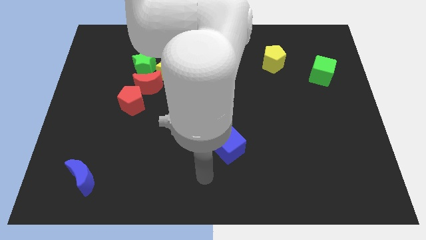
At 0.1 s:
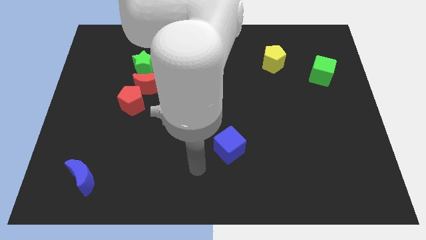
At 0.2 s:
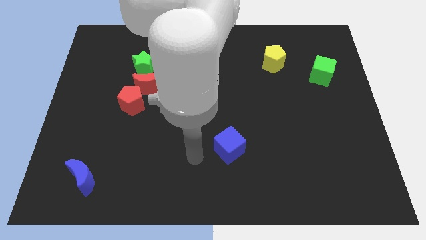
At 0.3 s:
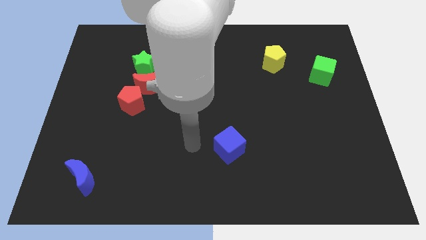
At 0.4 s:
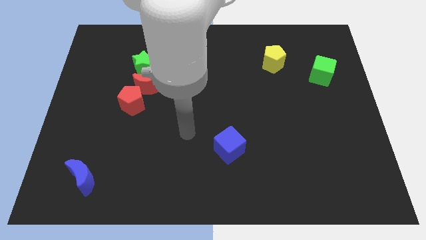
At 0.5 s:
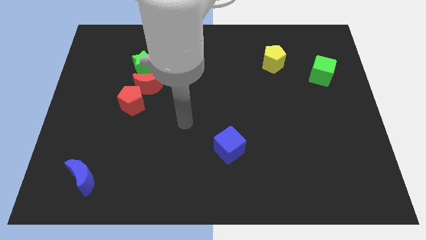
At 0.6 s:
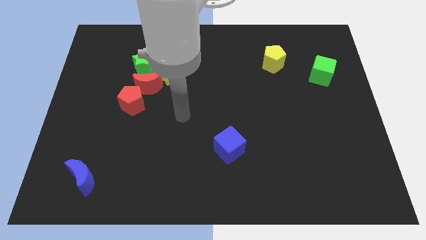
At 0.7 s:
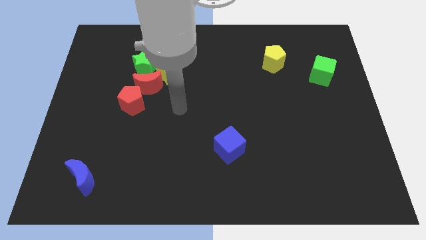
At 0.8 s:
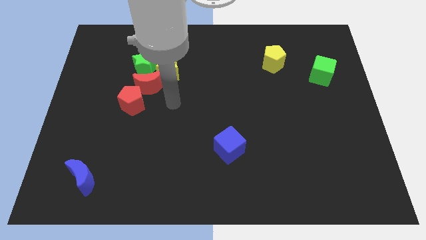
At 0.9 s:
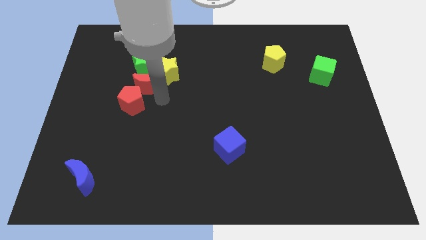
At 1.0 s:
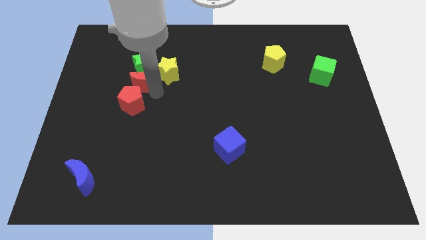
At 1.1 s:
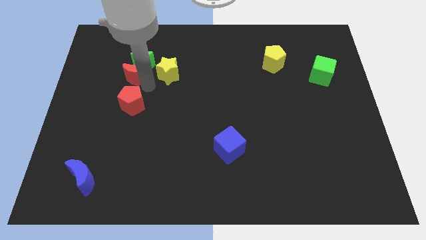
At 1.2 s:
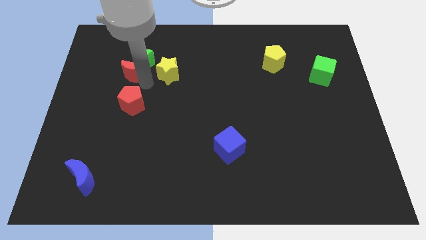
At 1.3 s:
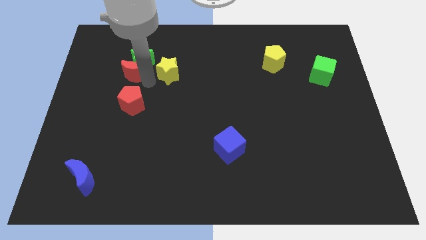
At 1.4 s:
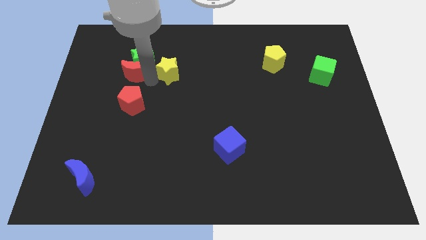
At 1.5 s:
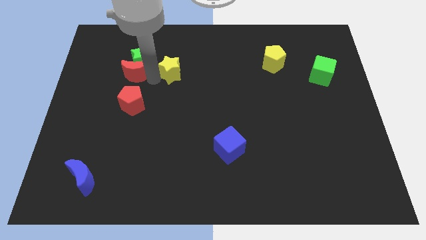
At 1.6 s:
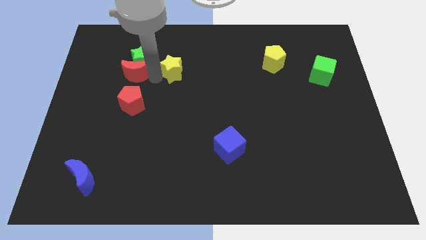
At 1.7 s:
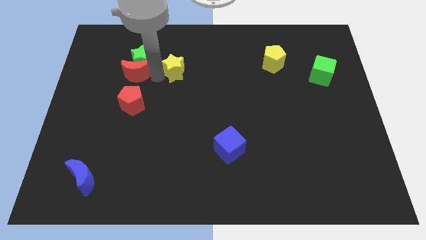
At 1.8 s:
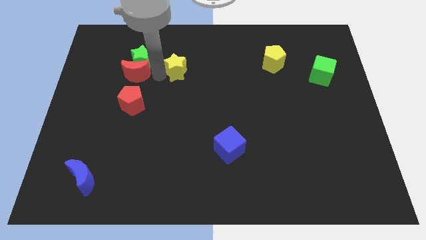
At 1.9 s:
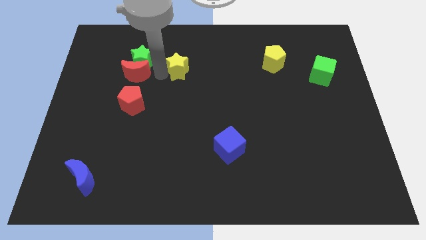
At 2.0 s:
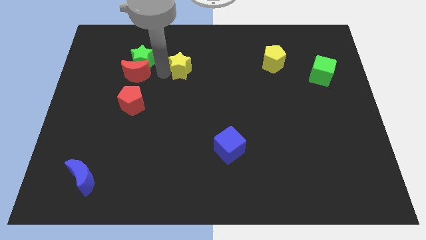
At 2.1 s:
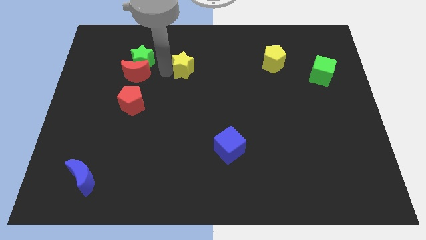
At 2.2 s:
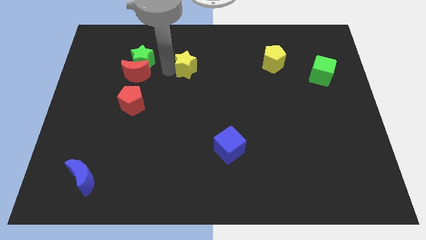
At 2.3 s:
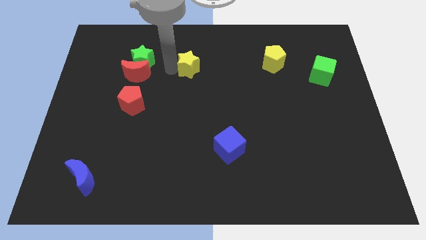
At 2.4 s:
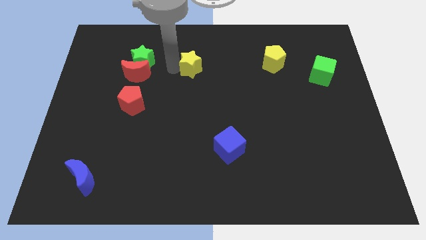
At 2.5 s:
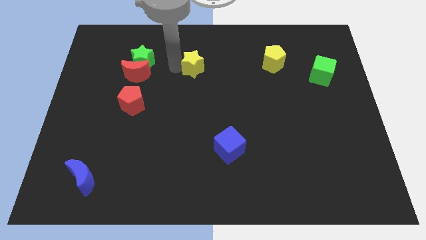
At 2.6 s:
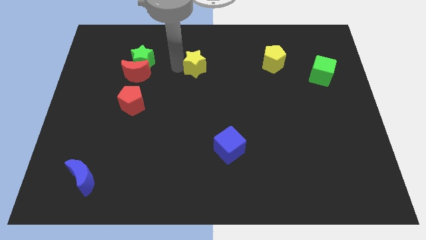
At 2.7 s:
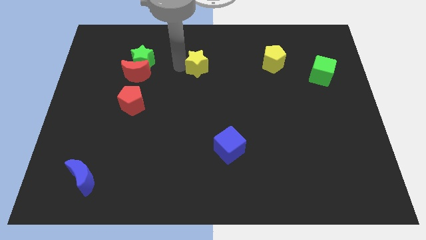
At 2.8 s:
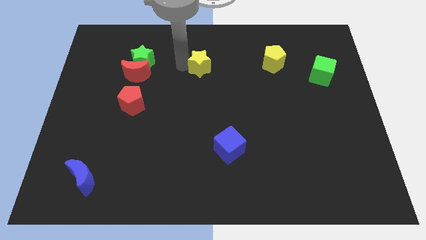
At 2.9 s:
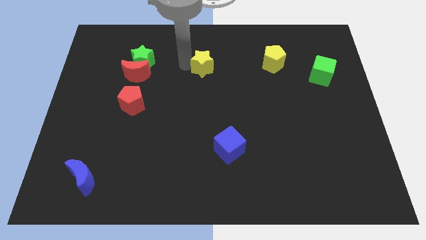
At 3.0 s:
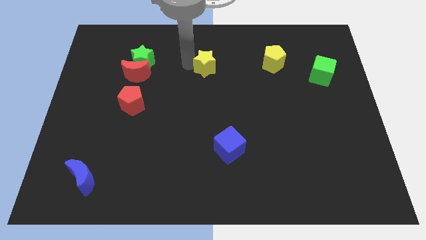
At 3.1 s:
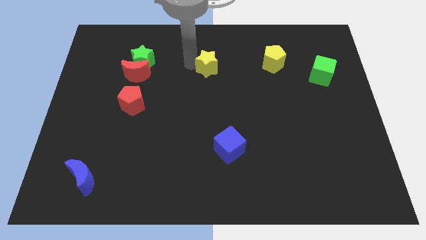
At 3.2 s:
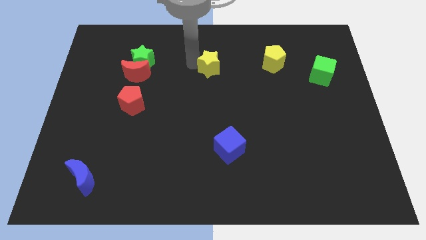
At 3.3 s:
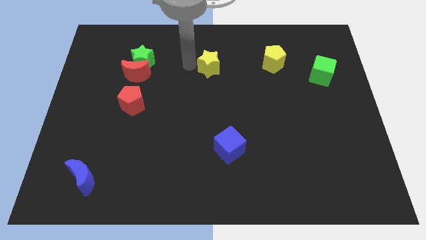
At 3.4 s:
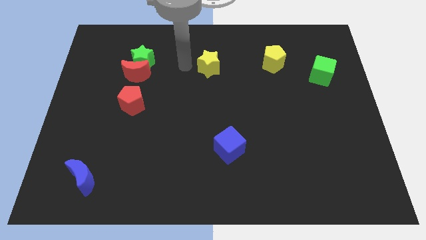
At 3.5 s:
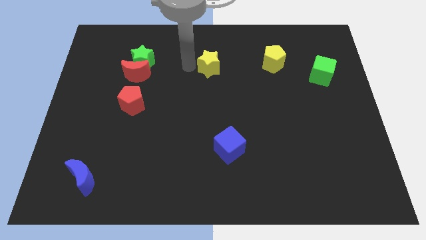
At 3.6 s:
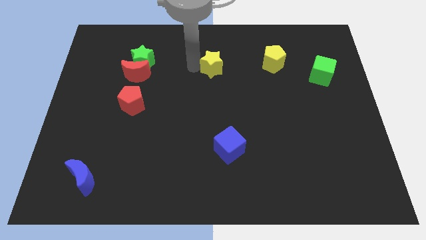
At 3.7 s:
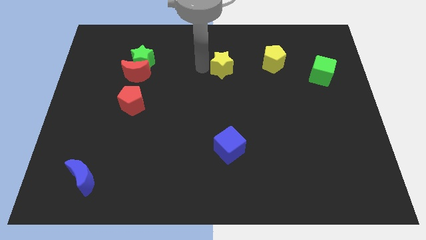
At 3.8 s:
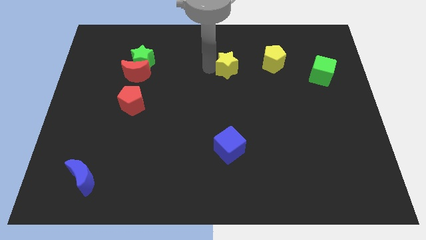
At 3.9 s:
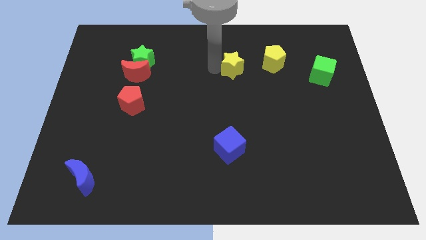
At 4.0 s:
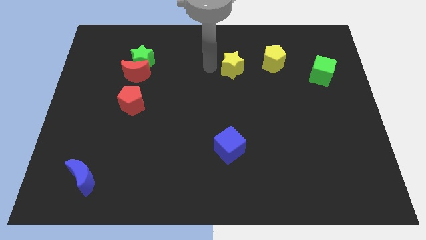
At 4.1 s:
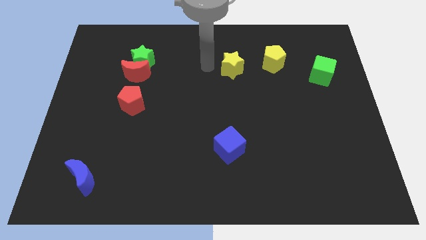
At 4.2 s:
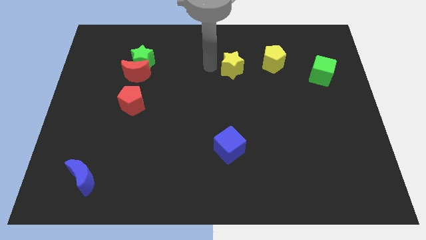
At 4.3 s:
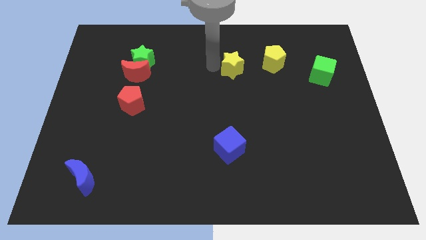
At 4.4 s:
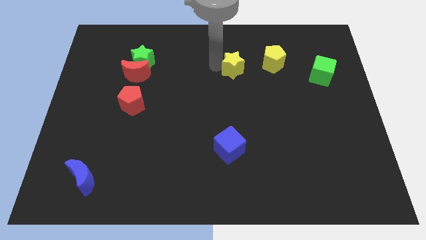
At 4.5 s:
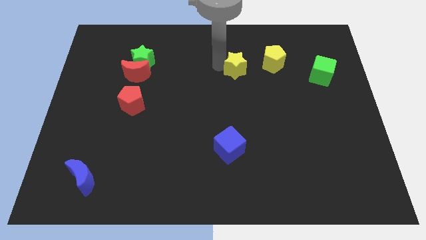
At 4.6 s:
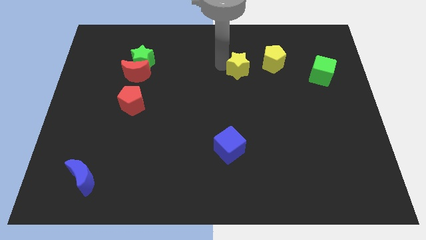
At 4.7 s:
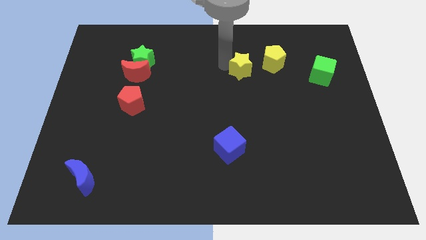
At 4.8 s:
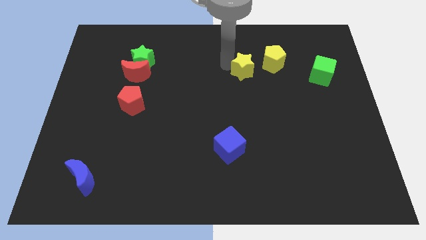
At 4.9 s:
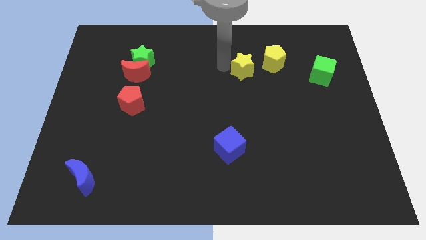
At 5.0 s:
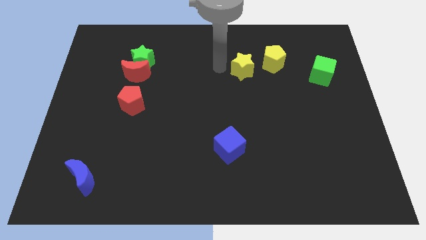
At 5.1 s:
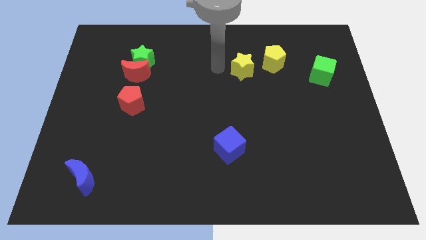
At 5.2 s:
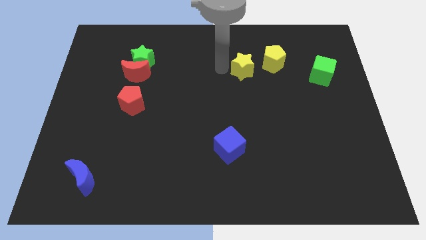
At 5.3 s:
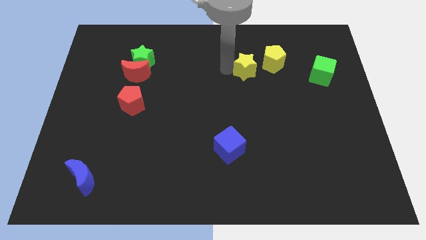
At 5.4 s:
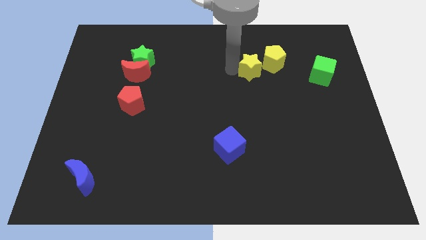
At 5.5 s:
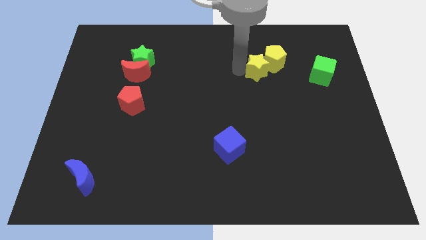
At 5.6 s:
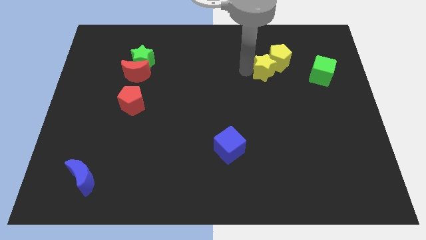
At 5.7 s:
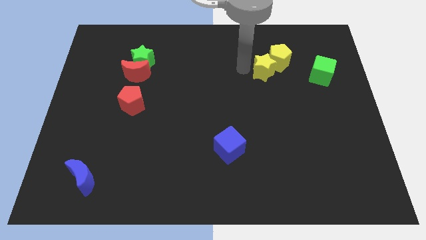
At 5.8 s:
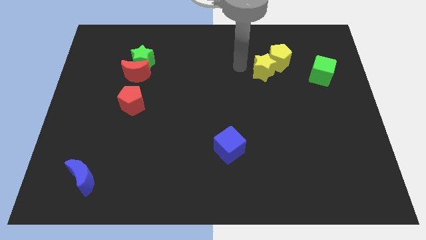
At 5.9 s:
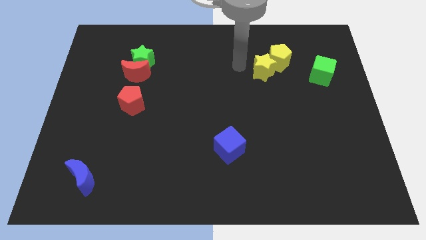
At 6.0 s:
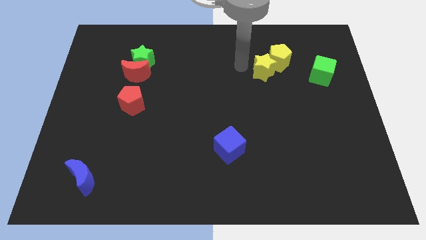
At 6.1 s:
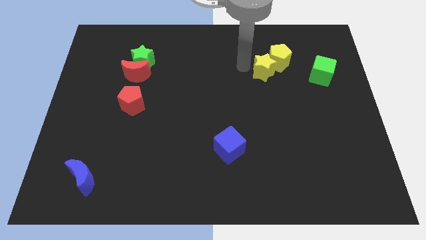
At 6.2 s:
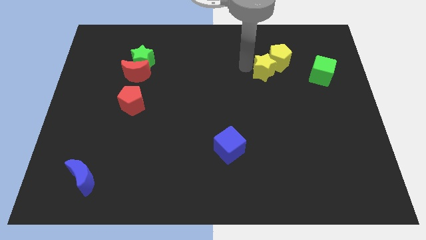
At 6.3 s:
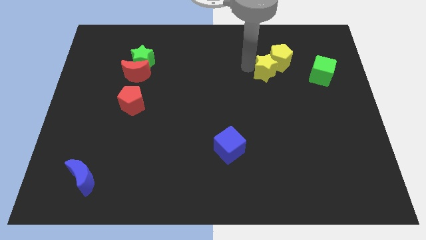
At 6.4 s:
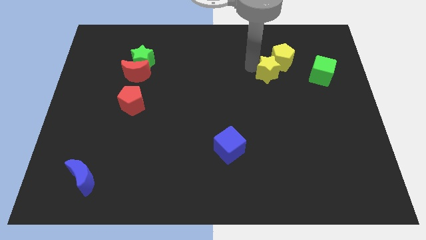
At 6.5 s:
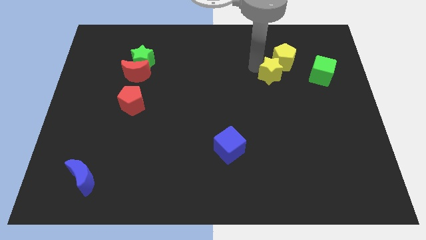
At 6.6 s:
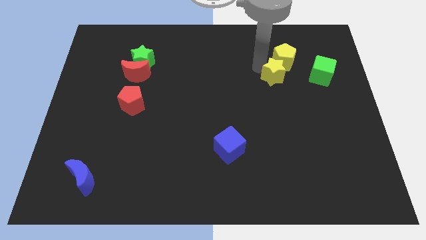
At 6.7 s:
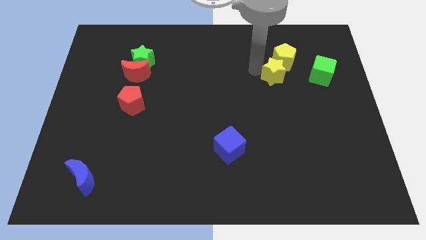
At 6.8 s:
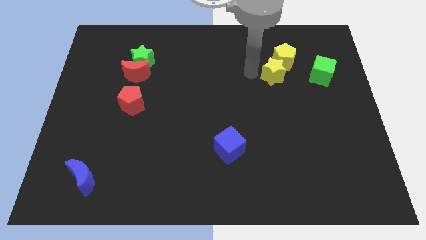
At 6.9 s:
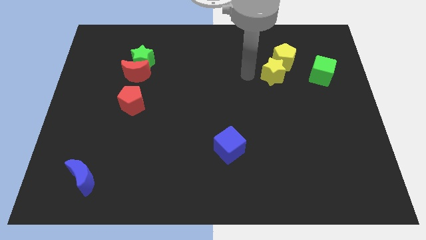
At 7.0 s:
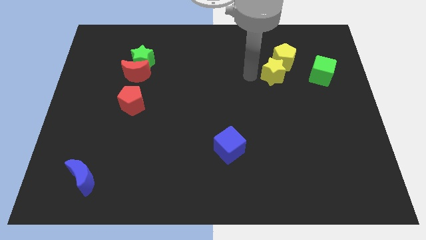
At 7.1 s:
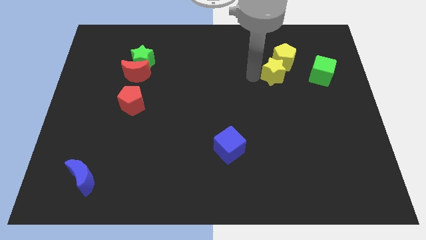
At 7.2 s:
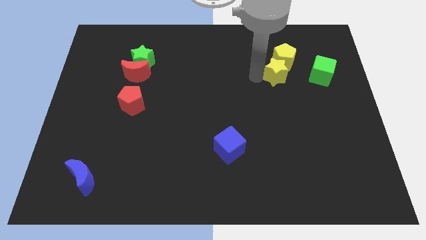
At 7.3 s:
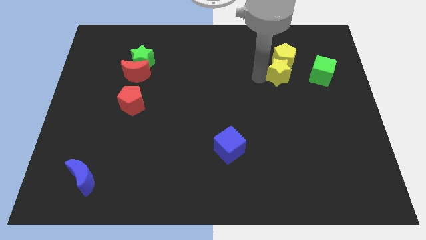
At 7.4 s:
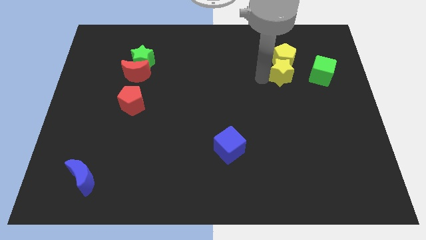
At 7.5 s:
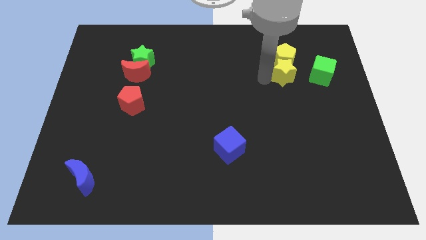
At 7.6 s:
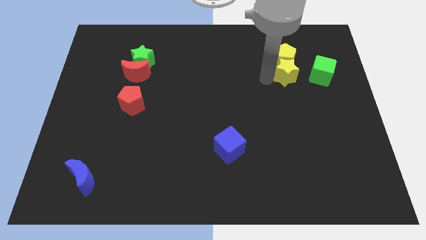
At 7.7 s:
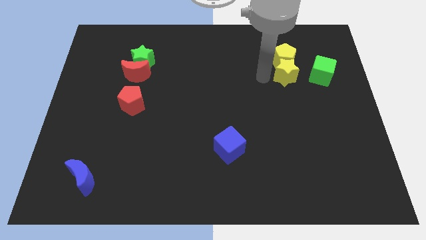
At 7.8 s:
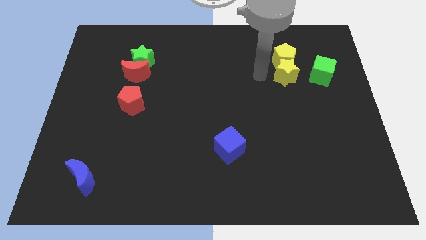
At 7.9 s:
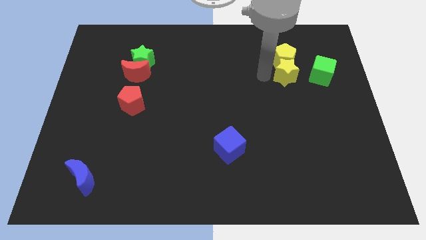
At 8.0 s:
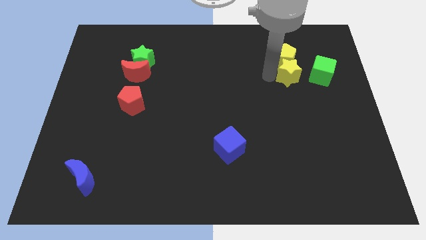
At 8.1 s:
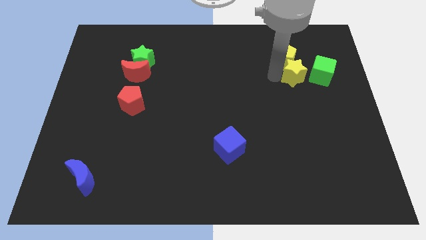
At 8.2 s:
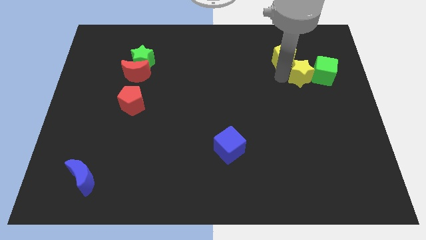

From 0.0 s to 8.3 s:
move the yellow star towards the green cube
